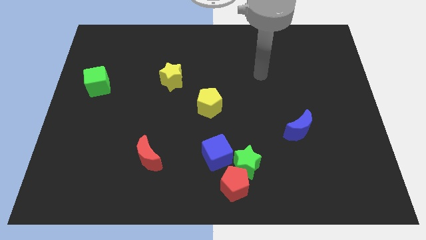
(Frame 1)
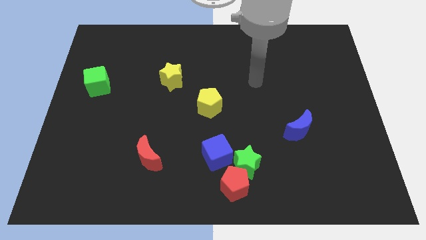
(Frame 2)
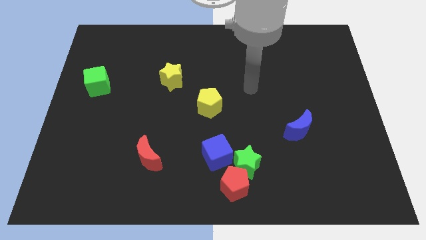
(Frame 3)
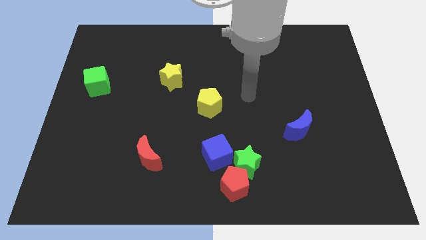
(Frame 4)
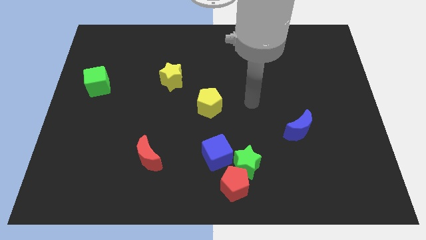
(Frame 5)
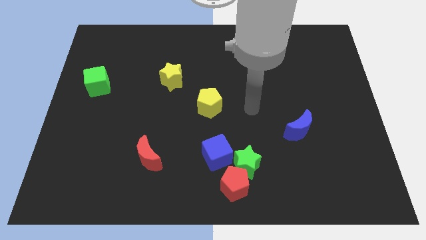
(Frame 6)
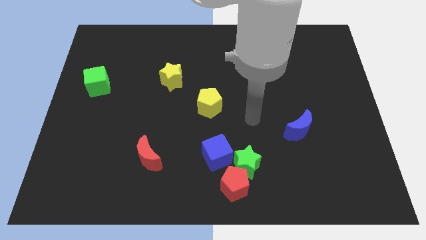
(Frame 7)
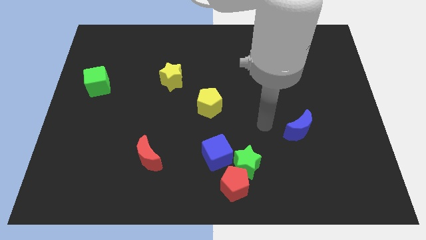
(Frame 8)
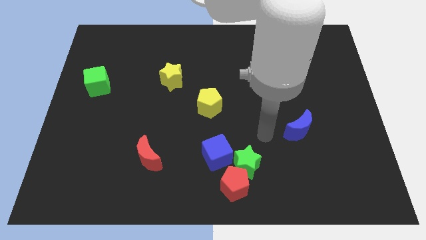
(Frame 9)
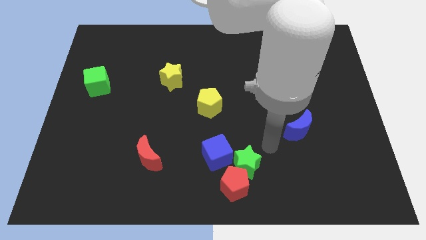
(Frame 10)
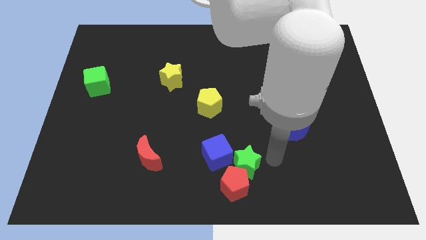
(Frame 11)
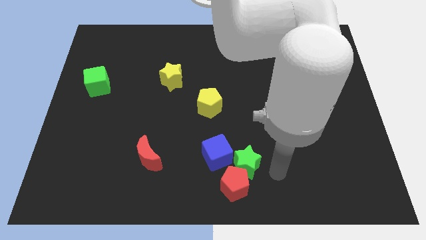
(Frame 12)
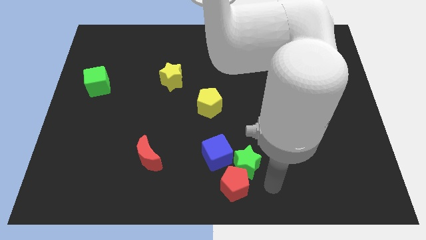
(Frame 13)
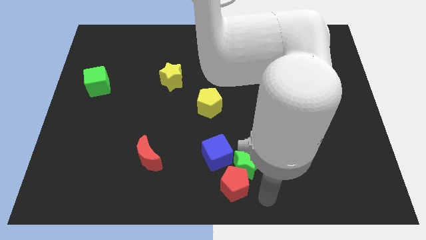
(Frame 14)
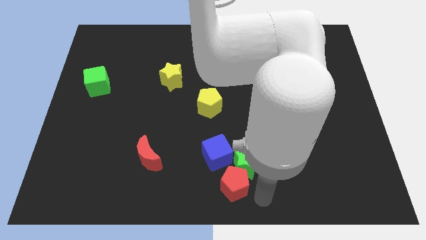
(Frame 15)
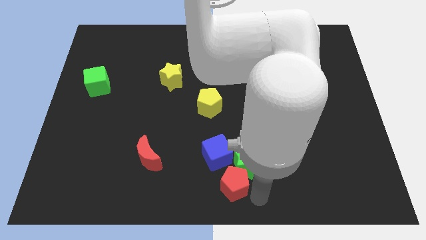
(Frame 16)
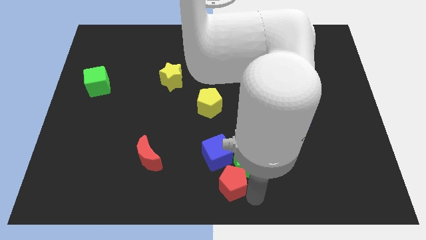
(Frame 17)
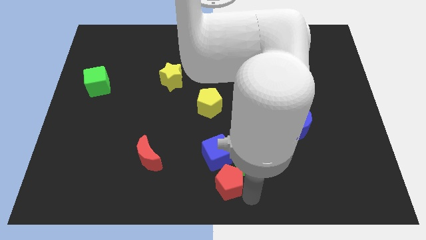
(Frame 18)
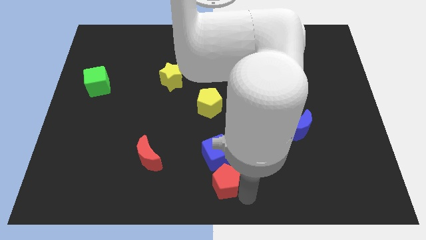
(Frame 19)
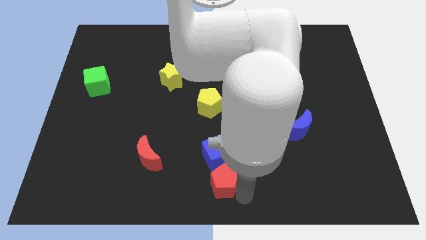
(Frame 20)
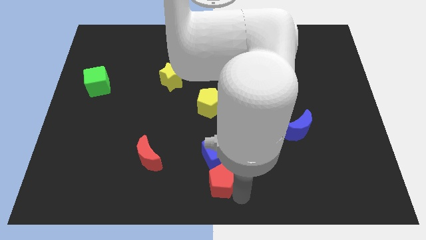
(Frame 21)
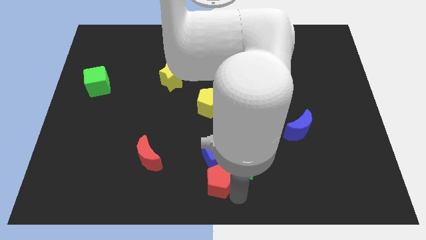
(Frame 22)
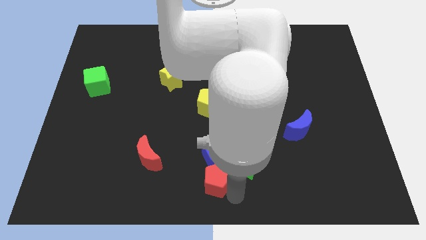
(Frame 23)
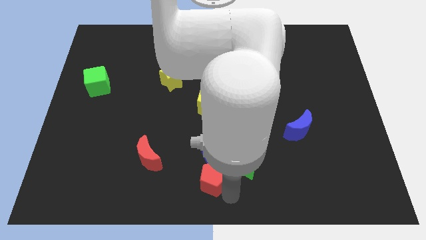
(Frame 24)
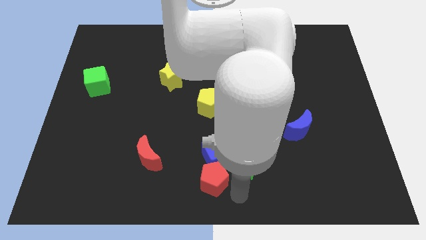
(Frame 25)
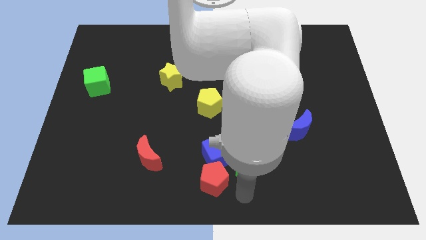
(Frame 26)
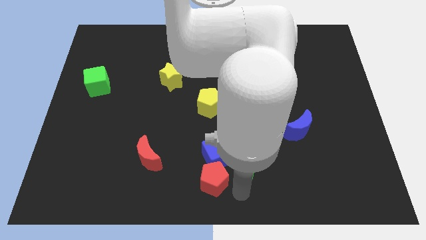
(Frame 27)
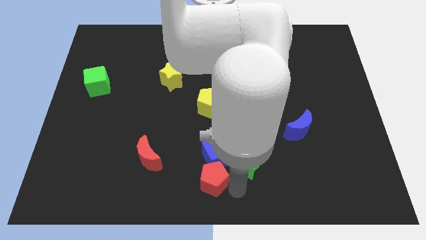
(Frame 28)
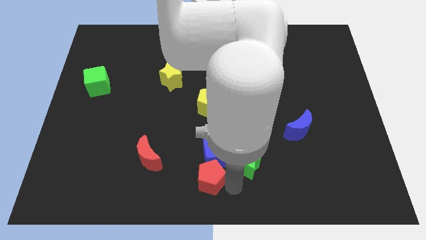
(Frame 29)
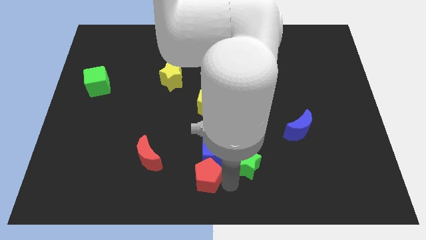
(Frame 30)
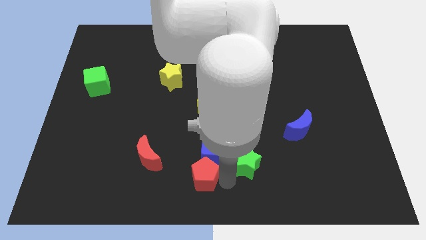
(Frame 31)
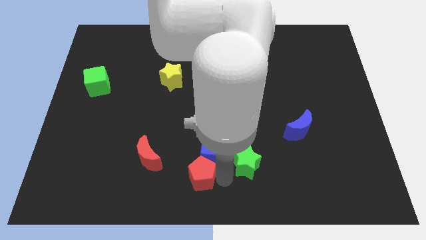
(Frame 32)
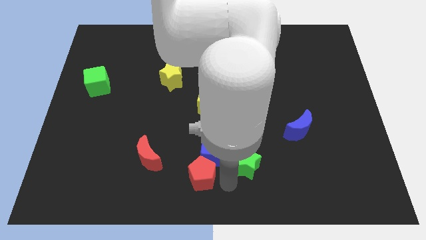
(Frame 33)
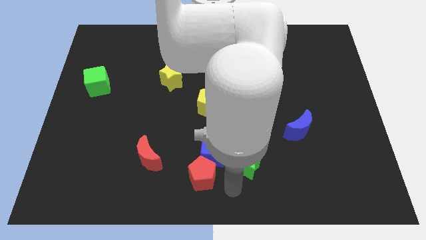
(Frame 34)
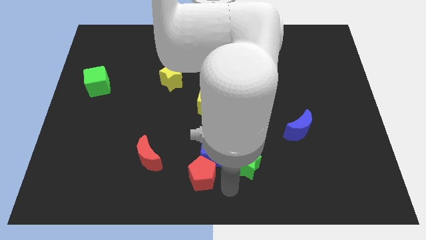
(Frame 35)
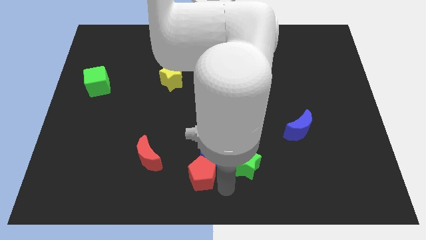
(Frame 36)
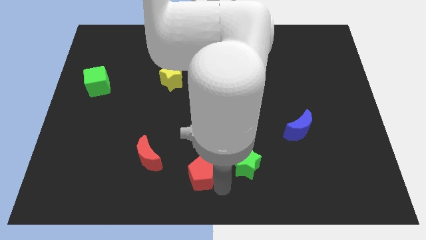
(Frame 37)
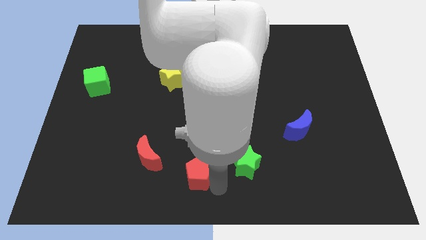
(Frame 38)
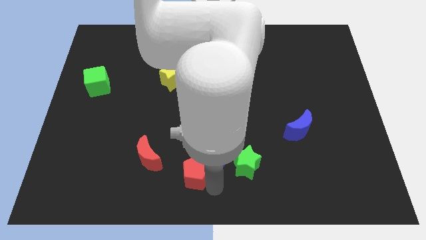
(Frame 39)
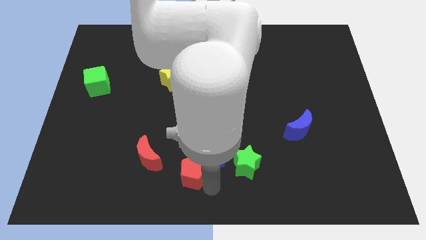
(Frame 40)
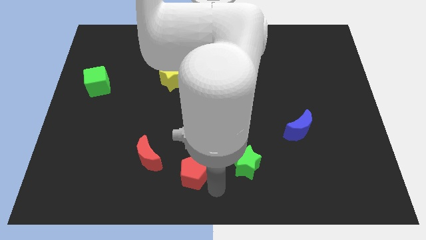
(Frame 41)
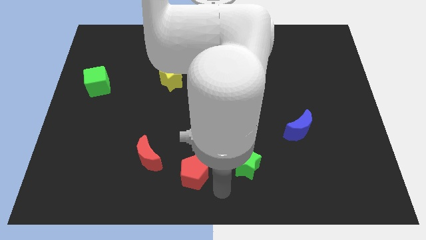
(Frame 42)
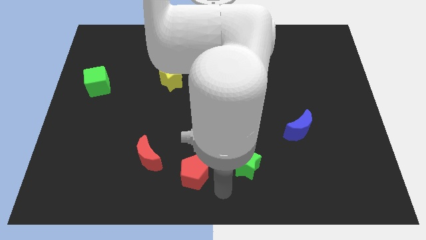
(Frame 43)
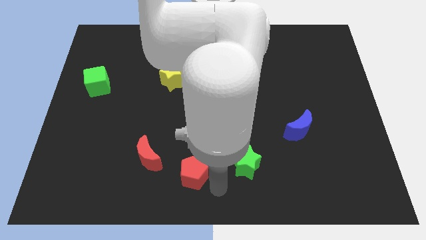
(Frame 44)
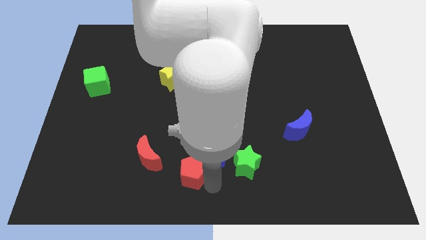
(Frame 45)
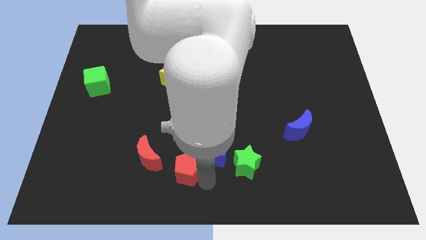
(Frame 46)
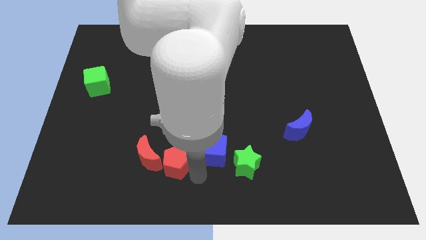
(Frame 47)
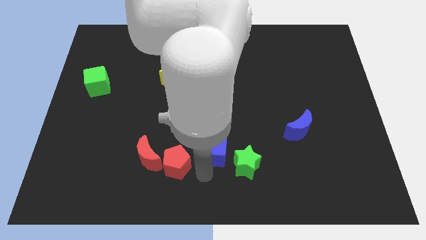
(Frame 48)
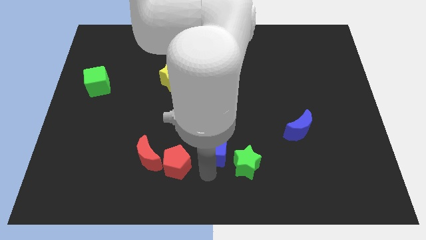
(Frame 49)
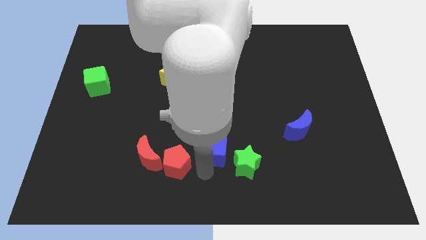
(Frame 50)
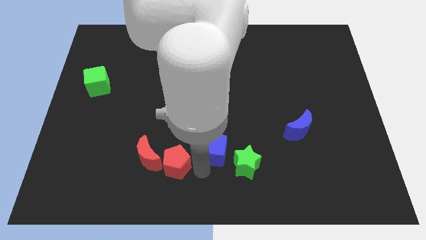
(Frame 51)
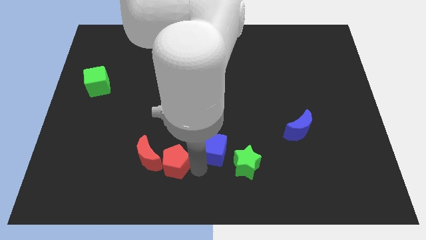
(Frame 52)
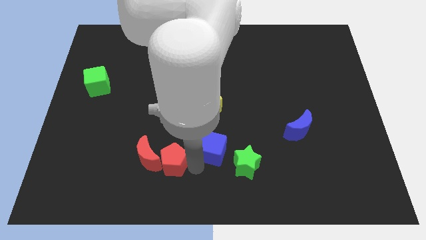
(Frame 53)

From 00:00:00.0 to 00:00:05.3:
slide the red pentagon next to the red moon

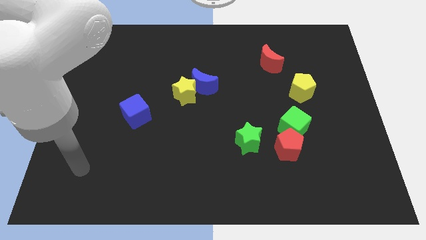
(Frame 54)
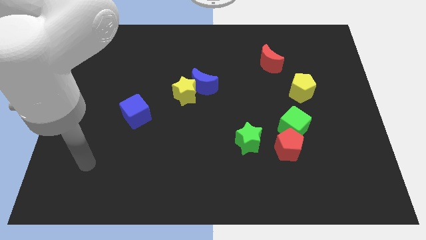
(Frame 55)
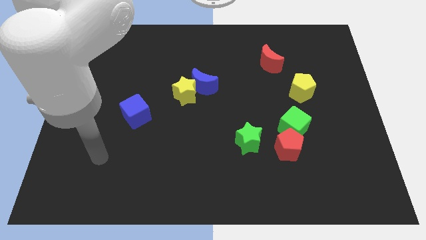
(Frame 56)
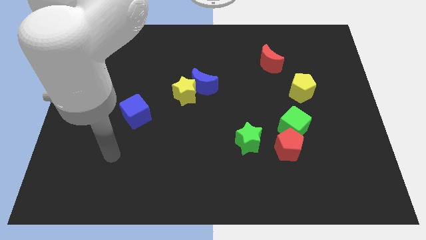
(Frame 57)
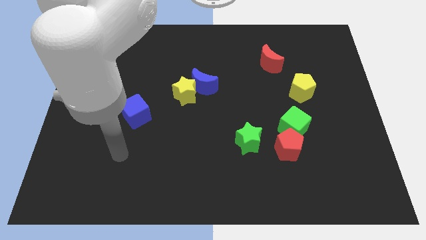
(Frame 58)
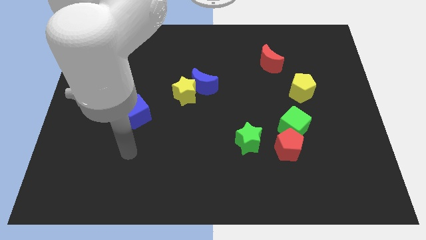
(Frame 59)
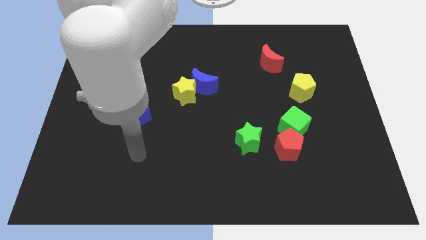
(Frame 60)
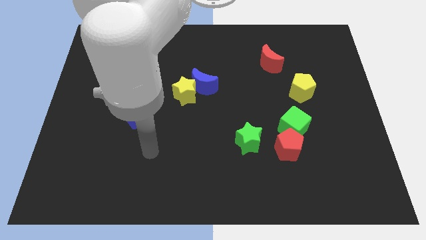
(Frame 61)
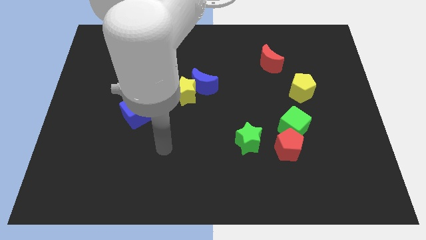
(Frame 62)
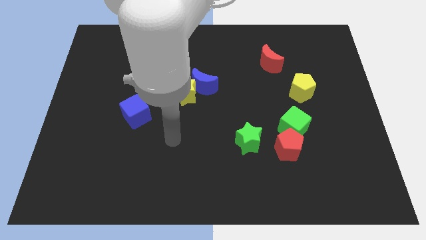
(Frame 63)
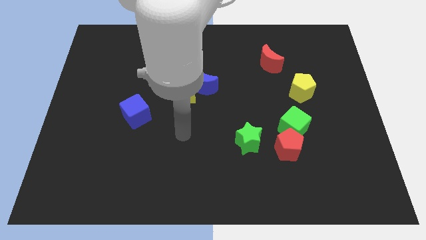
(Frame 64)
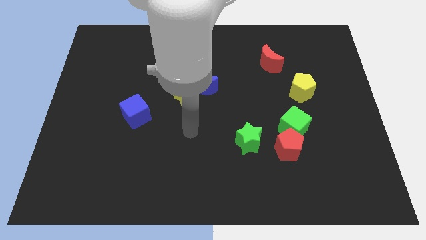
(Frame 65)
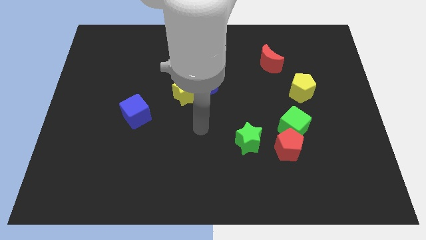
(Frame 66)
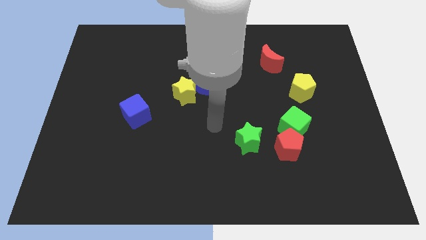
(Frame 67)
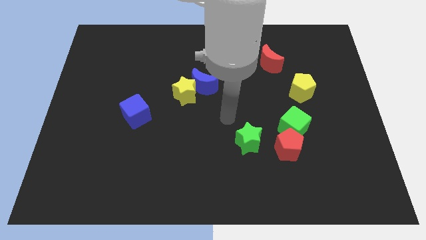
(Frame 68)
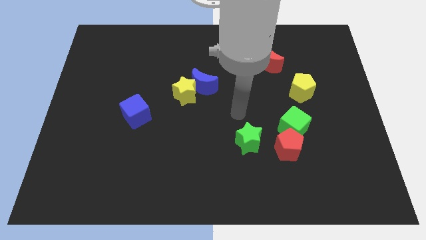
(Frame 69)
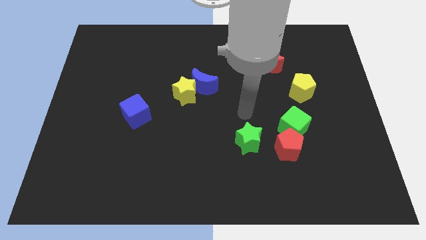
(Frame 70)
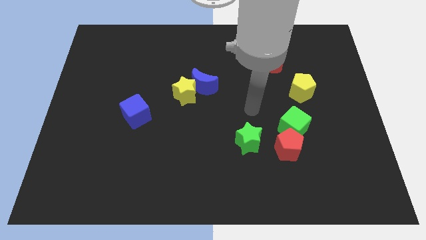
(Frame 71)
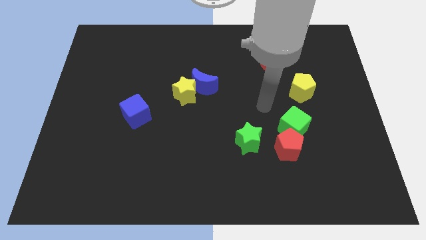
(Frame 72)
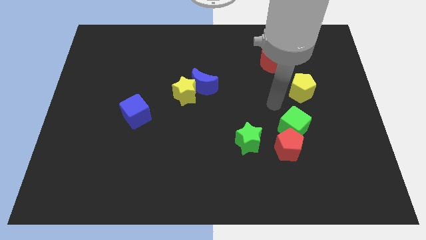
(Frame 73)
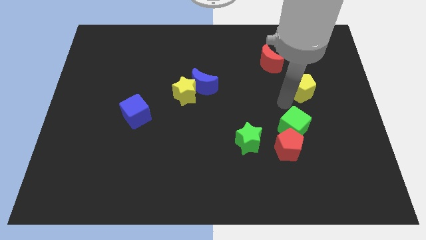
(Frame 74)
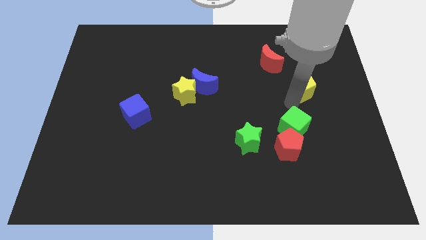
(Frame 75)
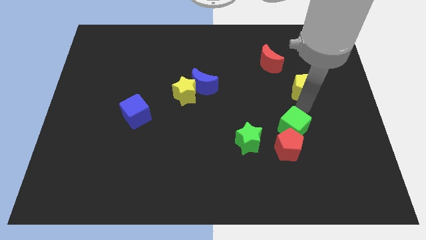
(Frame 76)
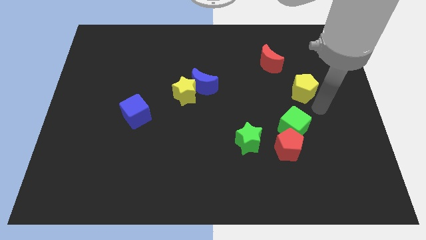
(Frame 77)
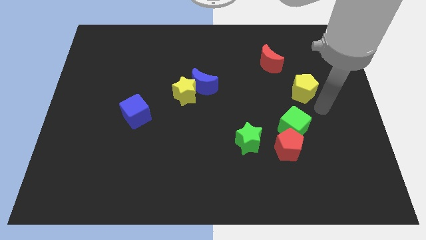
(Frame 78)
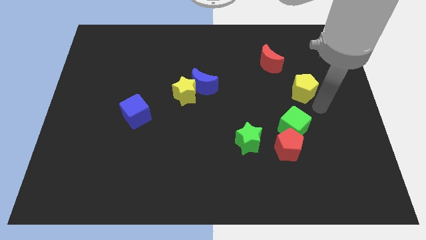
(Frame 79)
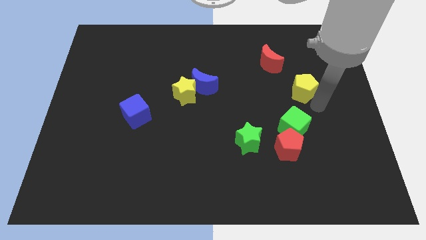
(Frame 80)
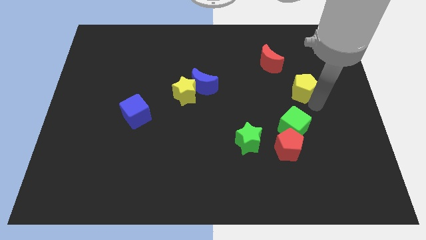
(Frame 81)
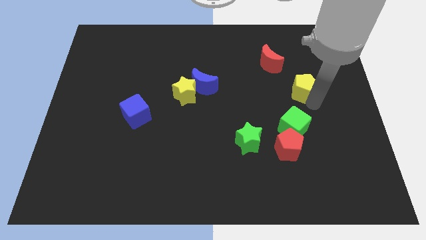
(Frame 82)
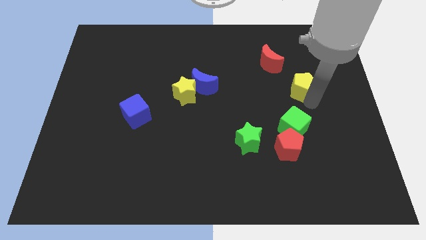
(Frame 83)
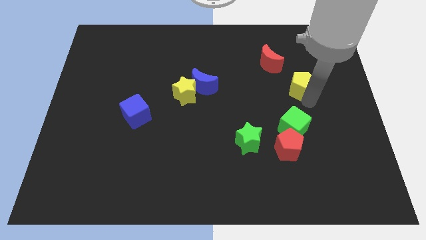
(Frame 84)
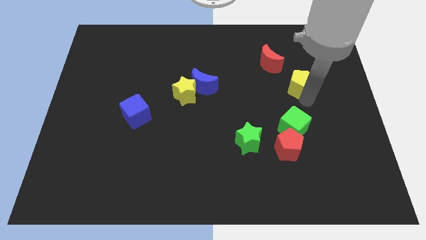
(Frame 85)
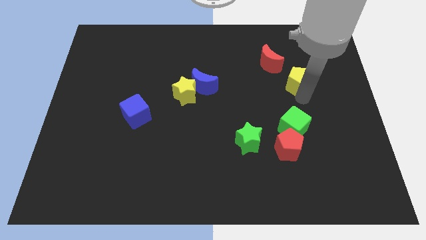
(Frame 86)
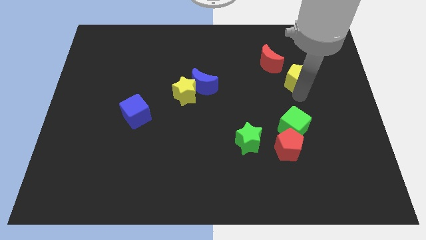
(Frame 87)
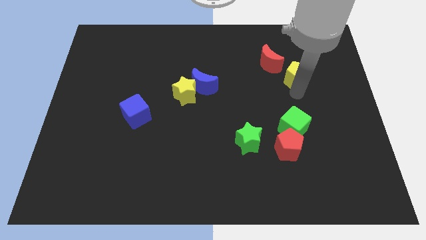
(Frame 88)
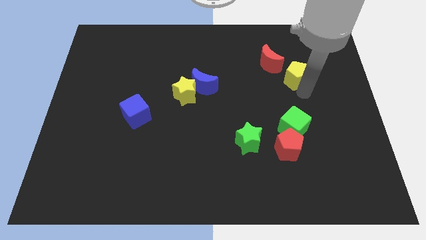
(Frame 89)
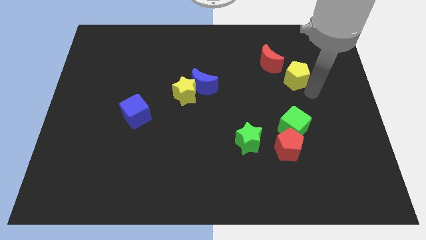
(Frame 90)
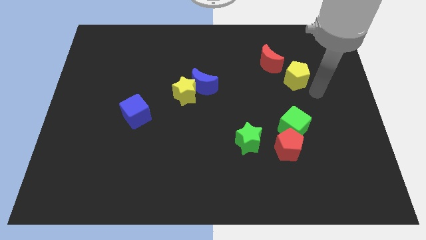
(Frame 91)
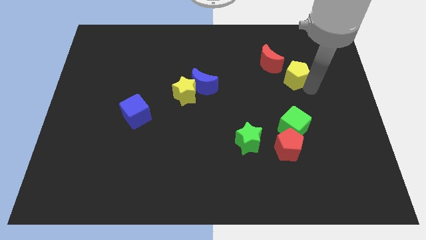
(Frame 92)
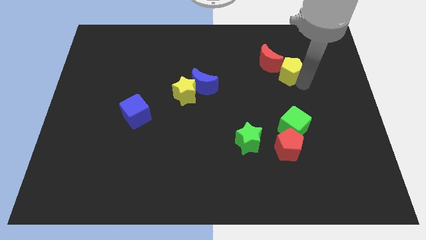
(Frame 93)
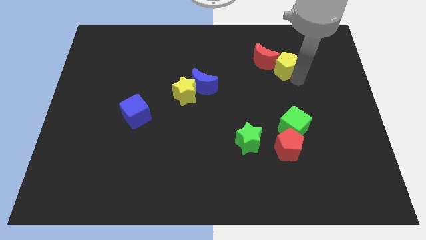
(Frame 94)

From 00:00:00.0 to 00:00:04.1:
put the yellow pentagon towards the red moon
